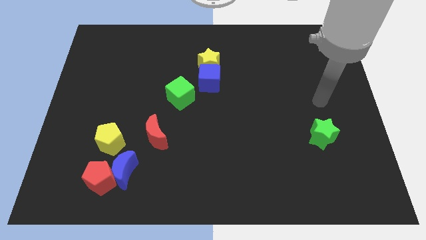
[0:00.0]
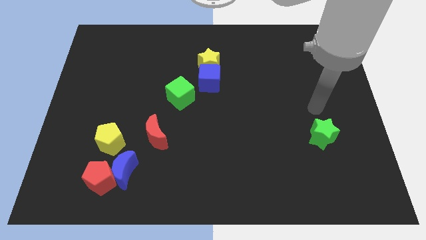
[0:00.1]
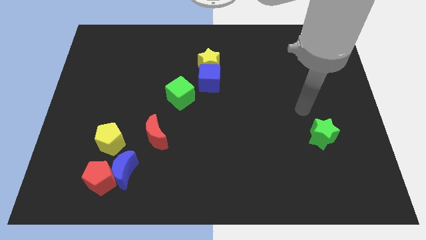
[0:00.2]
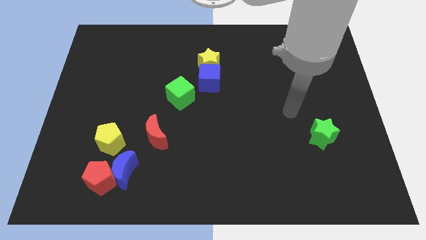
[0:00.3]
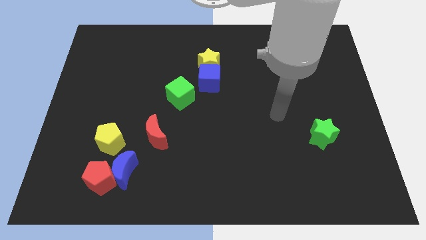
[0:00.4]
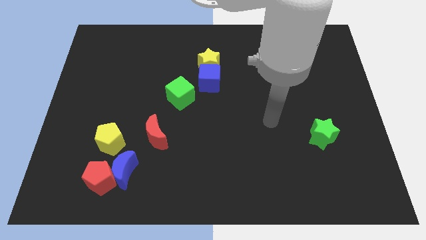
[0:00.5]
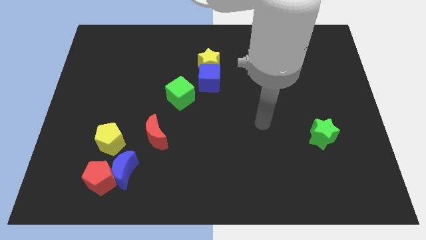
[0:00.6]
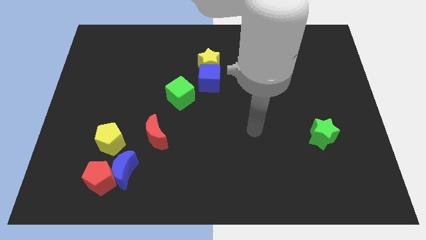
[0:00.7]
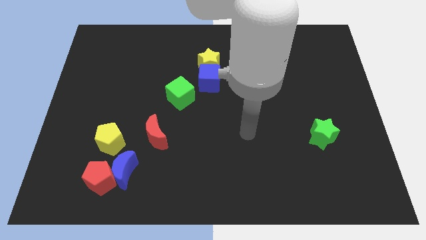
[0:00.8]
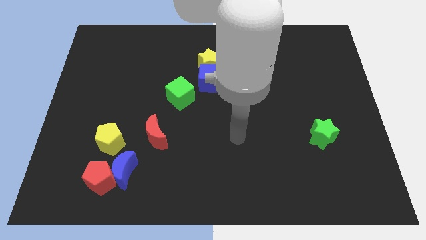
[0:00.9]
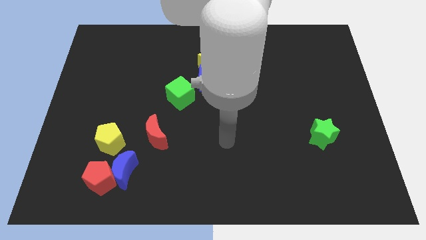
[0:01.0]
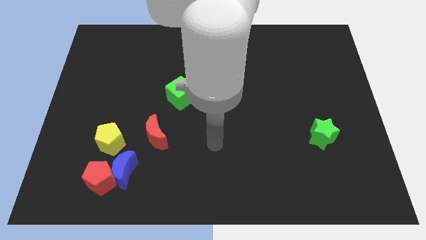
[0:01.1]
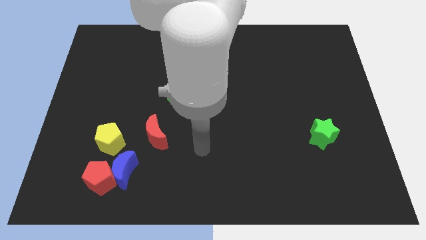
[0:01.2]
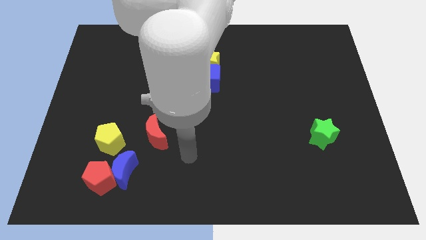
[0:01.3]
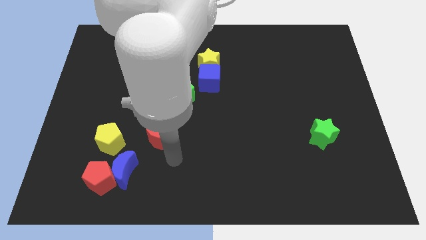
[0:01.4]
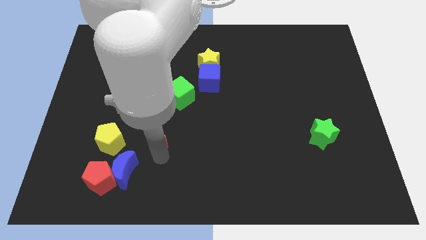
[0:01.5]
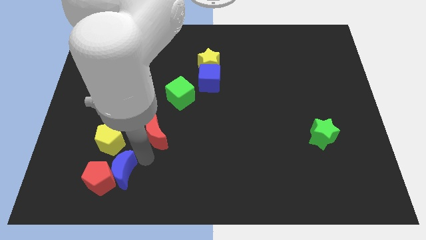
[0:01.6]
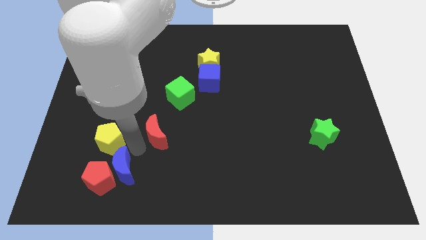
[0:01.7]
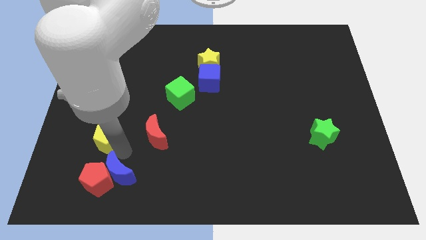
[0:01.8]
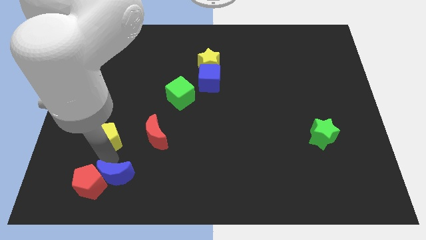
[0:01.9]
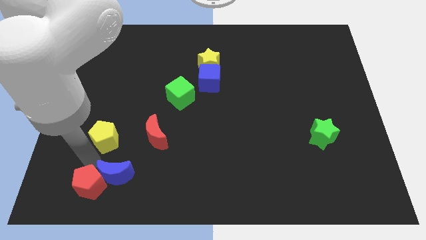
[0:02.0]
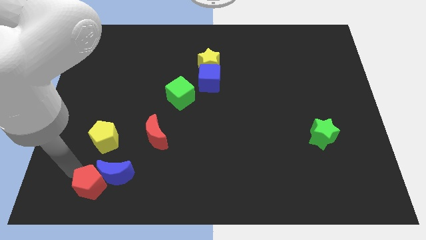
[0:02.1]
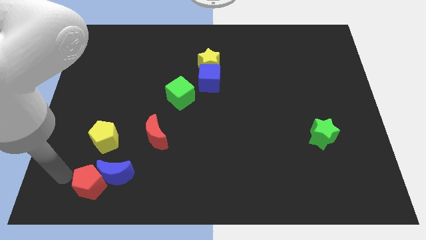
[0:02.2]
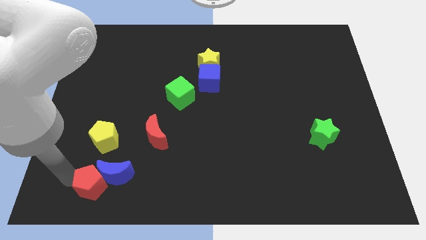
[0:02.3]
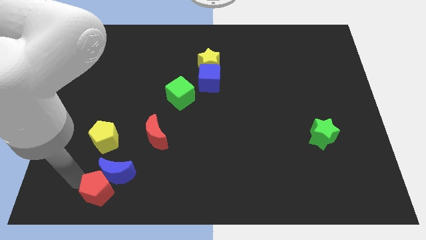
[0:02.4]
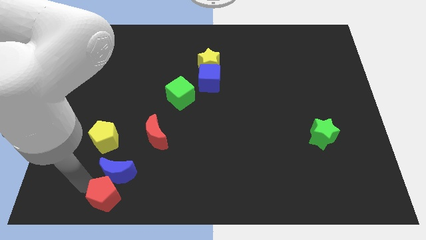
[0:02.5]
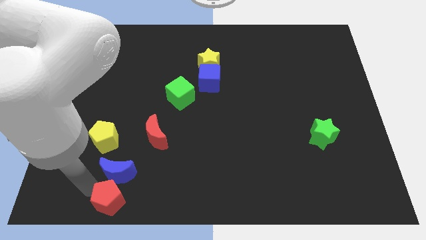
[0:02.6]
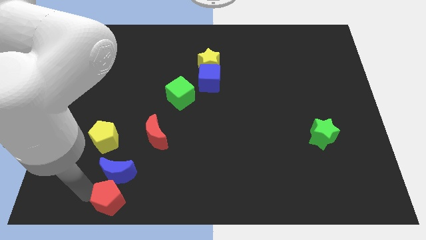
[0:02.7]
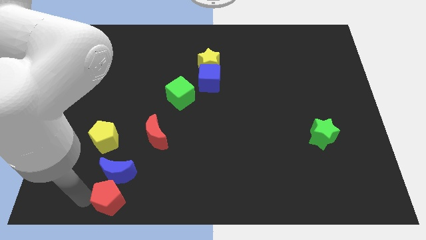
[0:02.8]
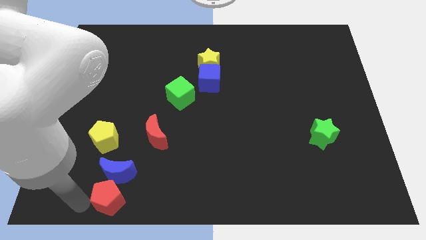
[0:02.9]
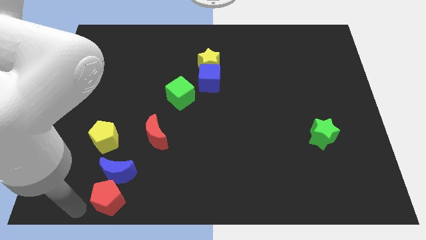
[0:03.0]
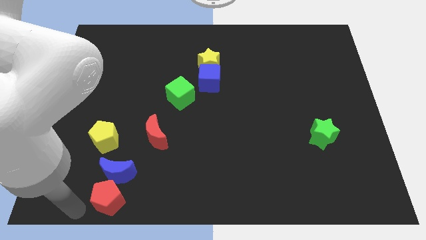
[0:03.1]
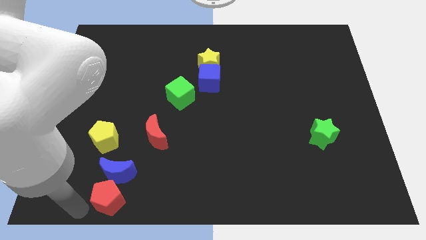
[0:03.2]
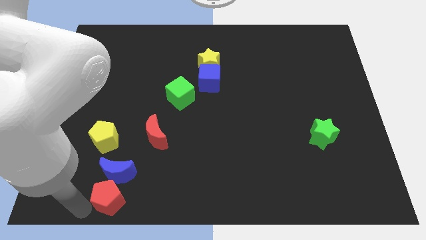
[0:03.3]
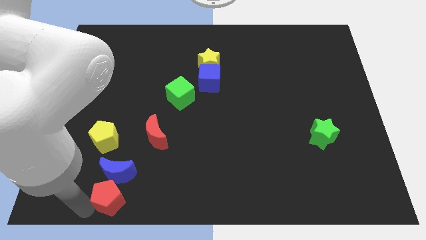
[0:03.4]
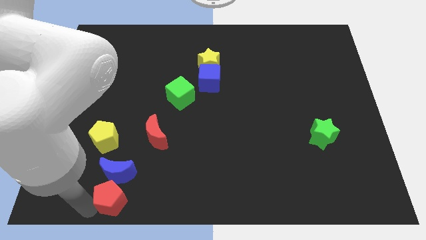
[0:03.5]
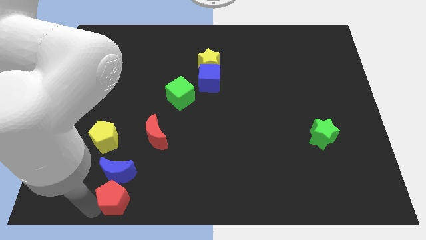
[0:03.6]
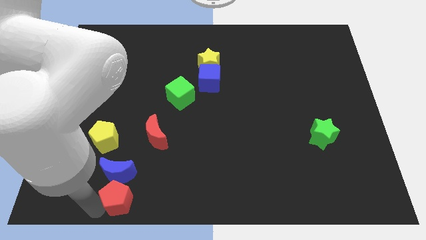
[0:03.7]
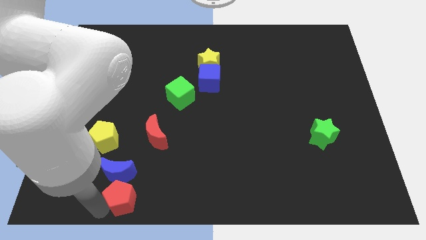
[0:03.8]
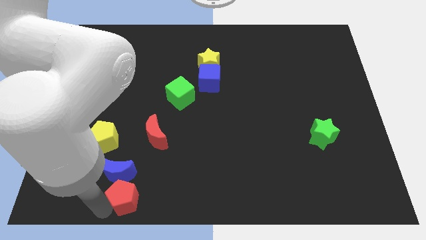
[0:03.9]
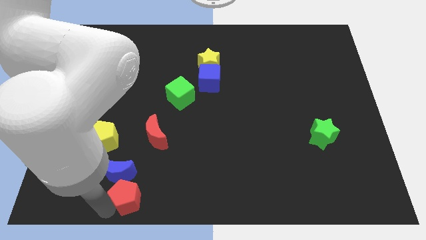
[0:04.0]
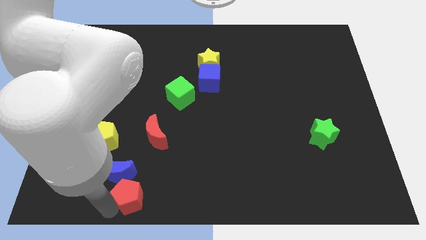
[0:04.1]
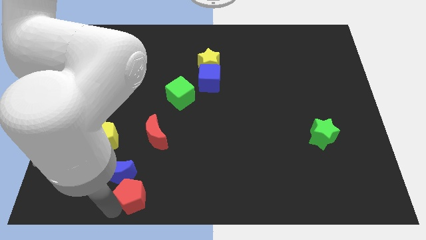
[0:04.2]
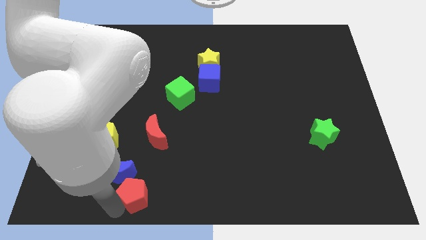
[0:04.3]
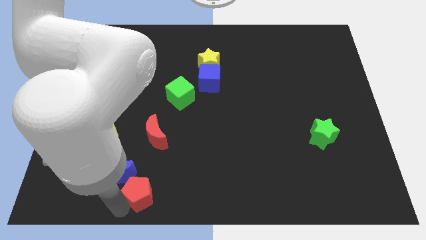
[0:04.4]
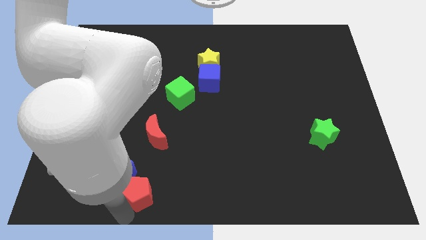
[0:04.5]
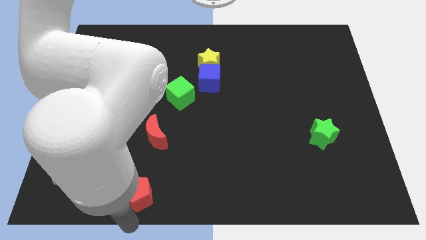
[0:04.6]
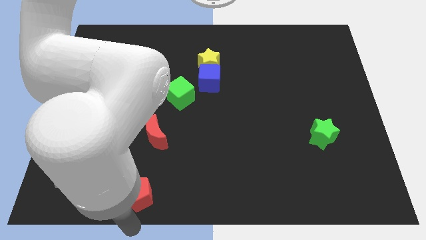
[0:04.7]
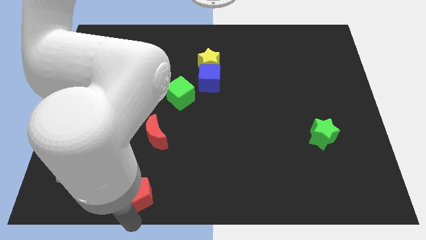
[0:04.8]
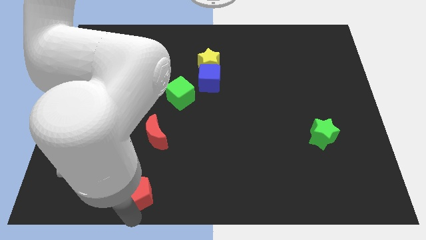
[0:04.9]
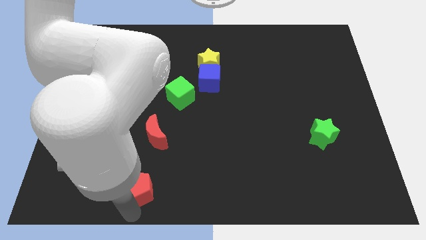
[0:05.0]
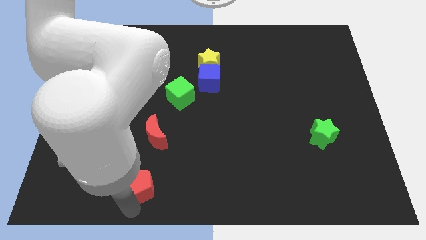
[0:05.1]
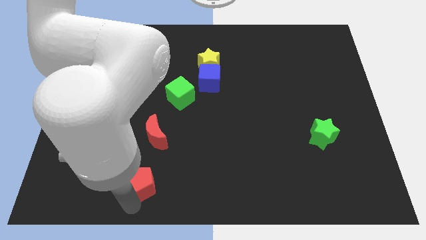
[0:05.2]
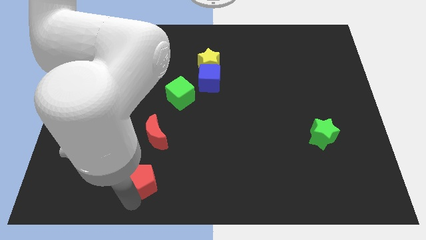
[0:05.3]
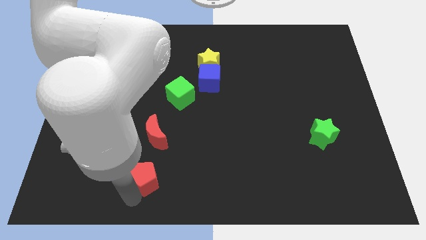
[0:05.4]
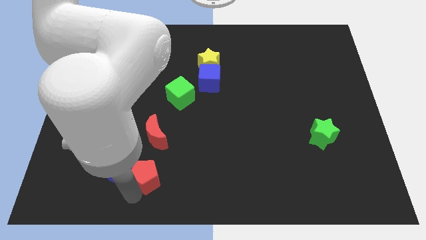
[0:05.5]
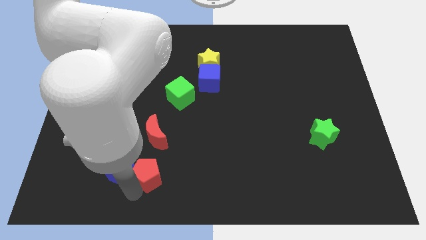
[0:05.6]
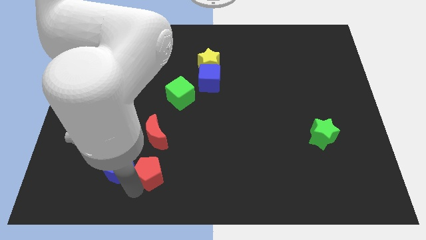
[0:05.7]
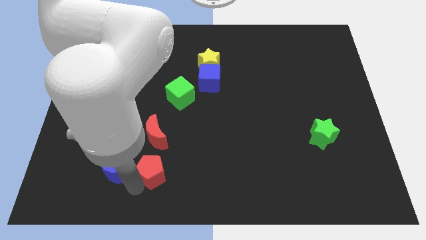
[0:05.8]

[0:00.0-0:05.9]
move the red pentagon upwards and to the right somewhat

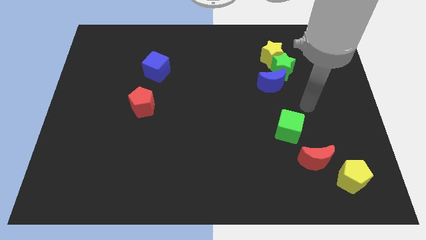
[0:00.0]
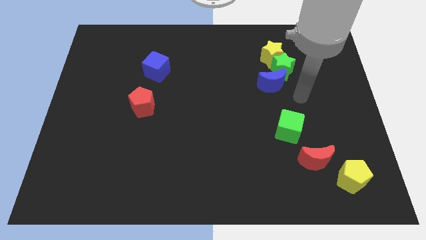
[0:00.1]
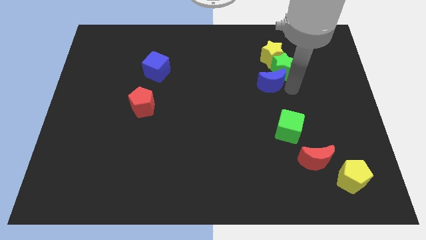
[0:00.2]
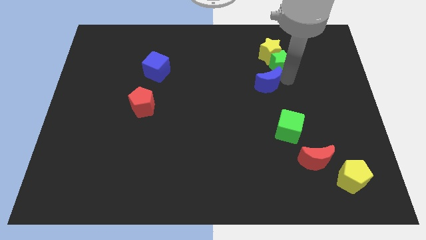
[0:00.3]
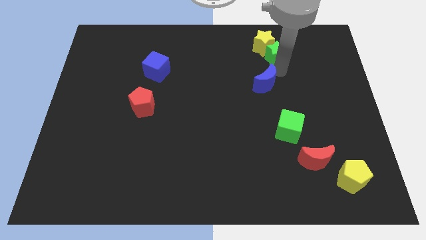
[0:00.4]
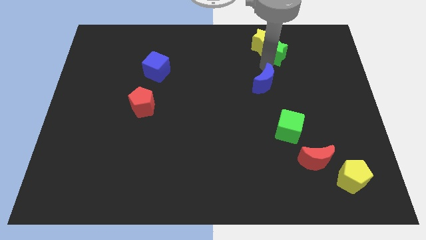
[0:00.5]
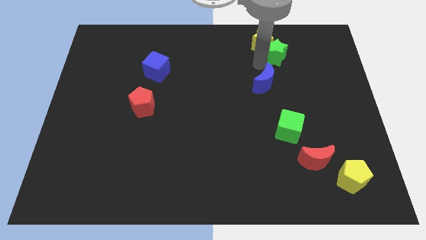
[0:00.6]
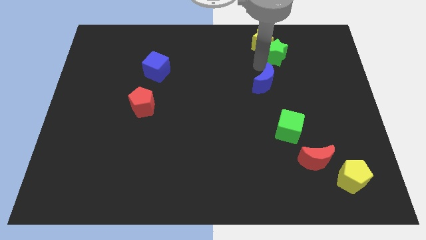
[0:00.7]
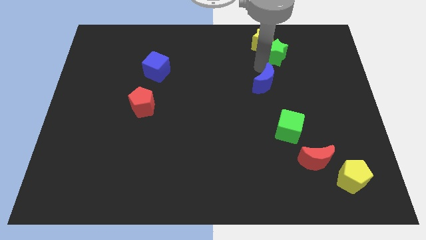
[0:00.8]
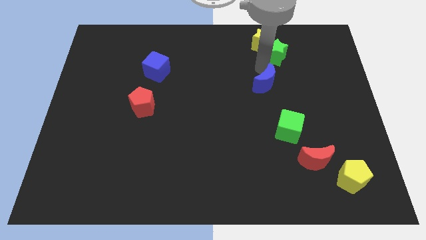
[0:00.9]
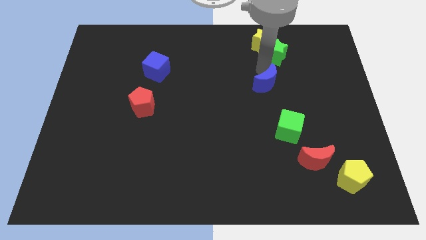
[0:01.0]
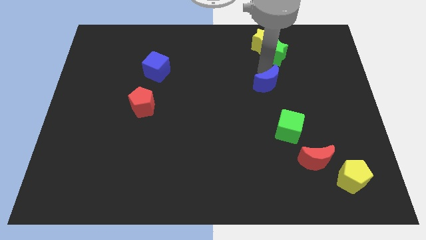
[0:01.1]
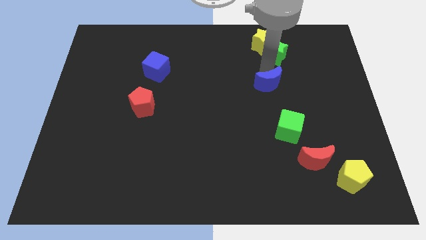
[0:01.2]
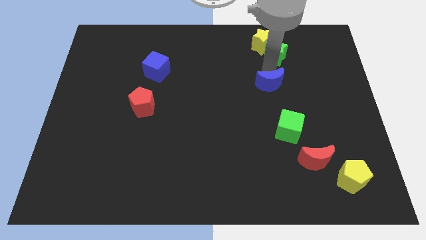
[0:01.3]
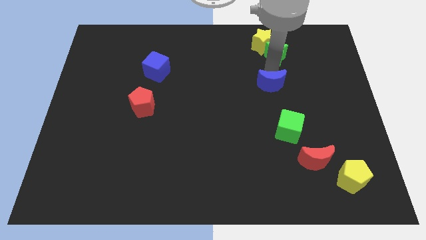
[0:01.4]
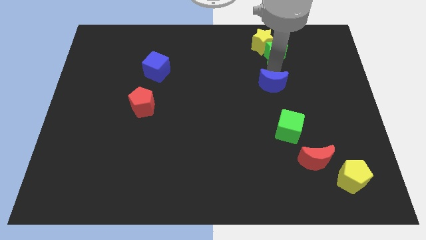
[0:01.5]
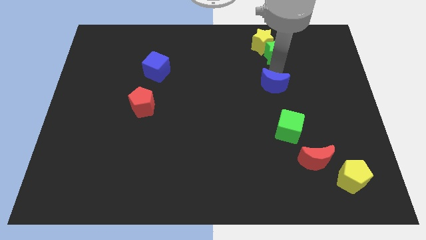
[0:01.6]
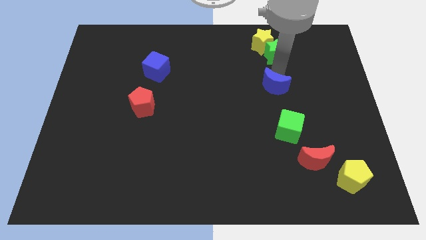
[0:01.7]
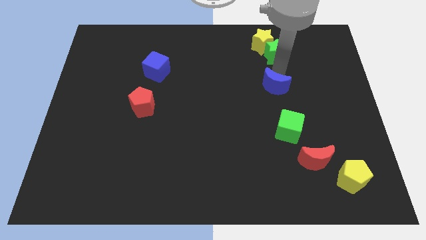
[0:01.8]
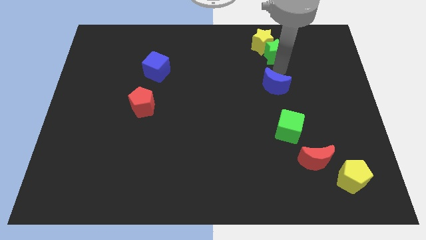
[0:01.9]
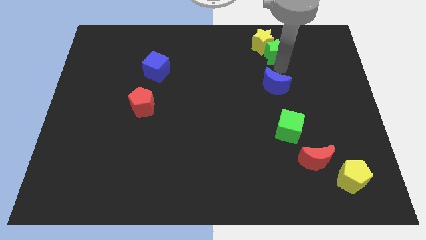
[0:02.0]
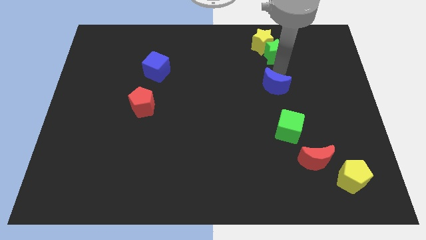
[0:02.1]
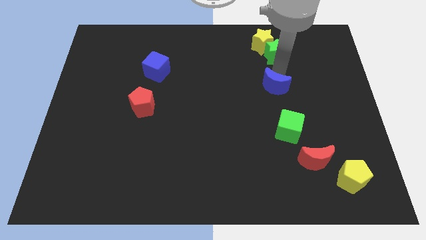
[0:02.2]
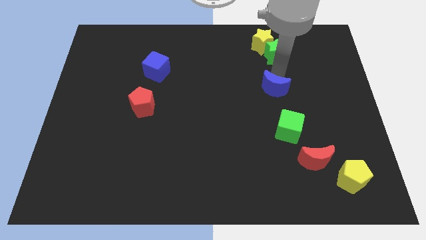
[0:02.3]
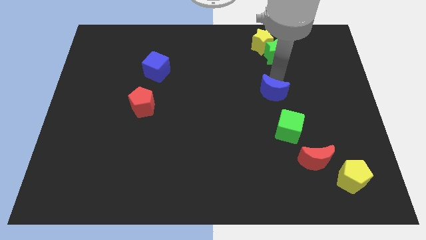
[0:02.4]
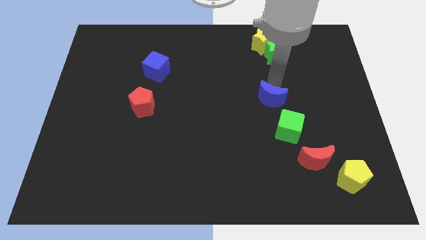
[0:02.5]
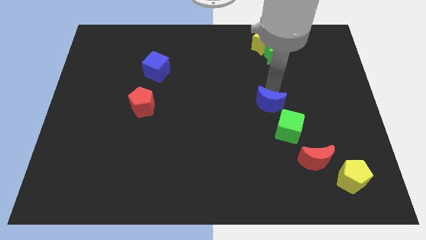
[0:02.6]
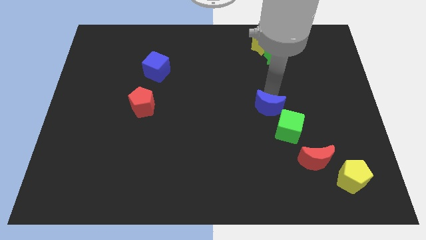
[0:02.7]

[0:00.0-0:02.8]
push the blue moon down a little
